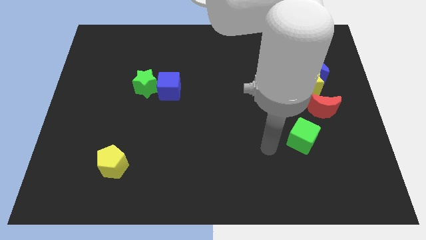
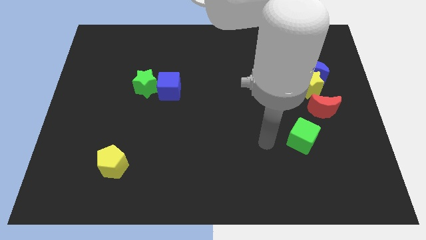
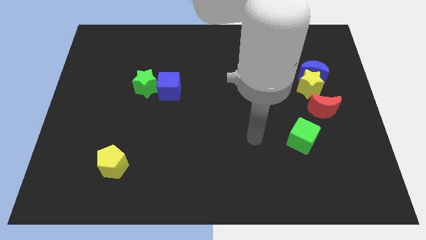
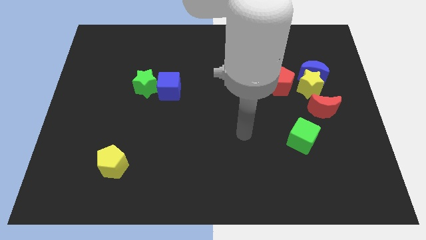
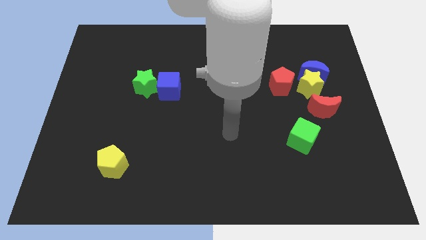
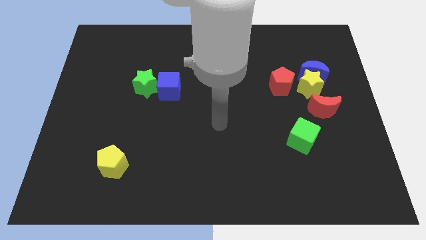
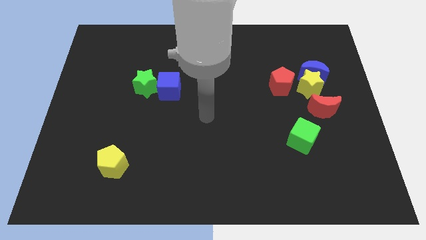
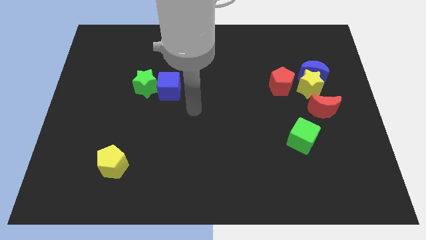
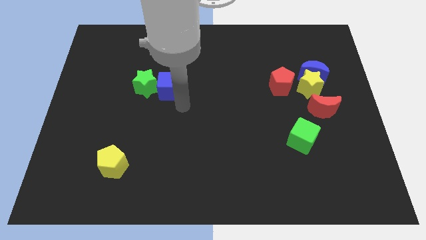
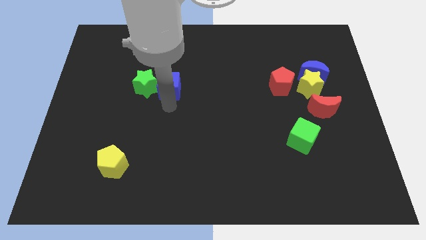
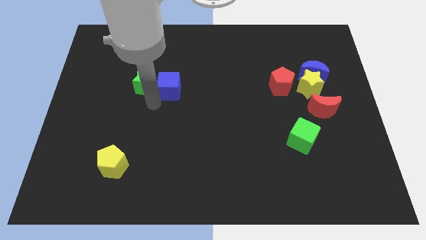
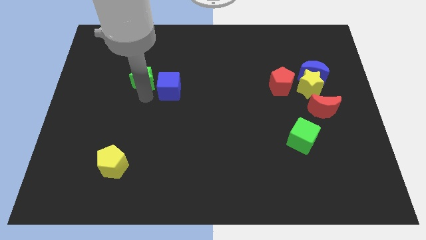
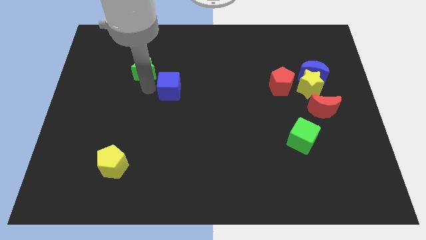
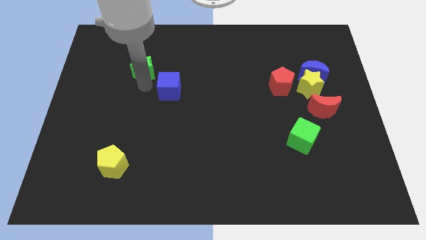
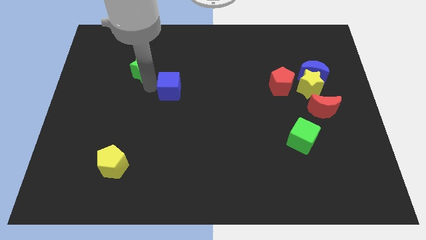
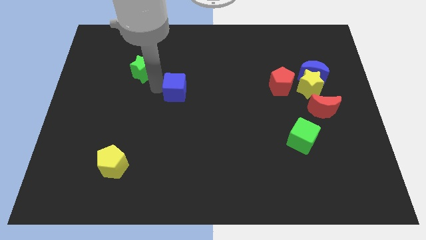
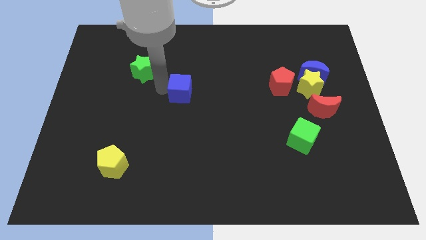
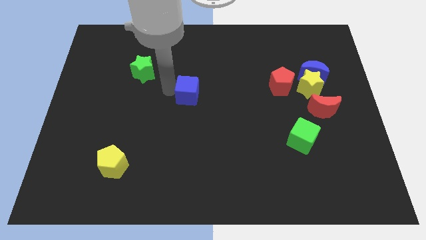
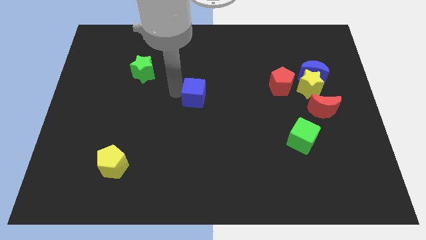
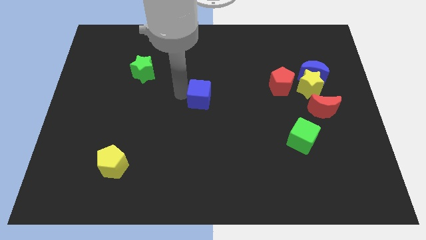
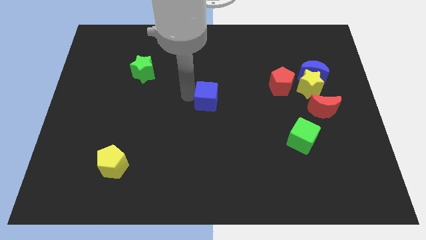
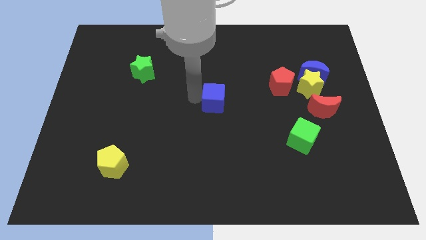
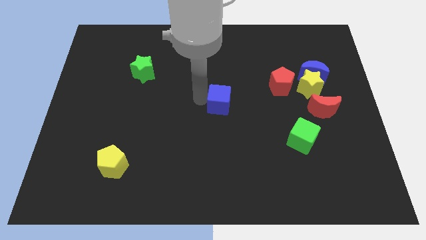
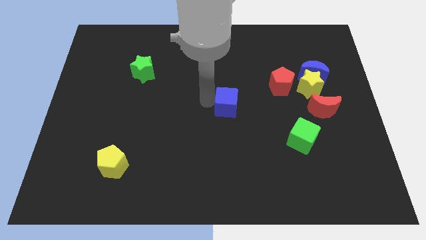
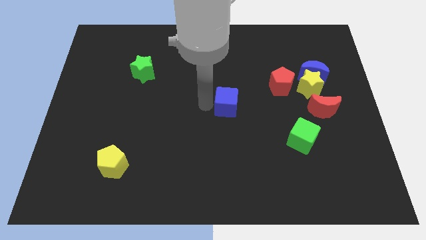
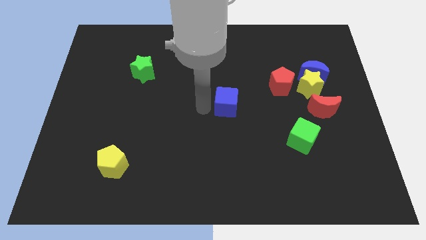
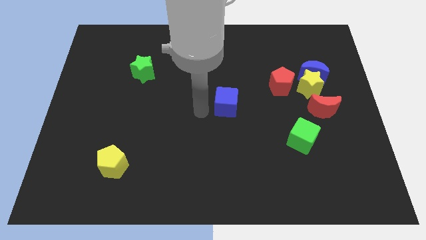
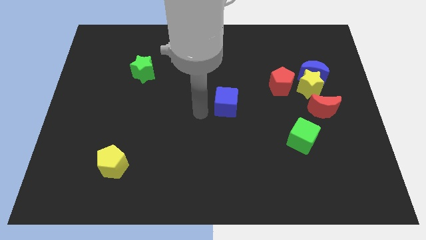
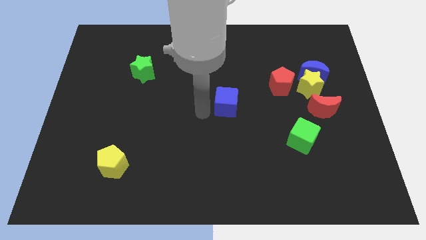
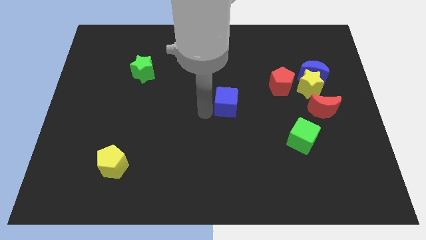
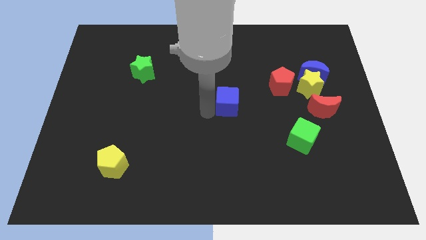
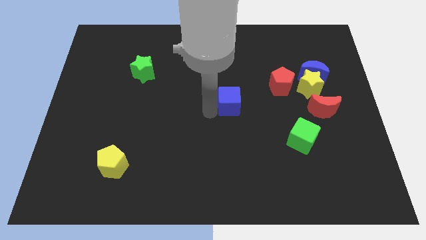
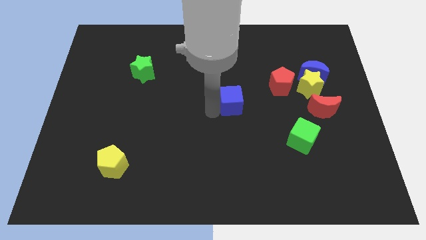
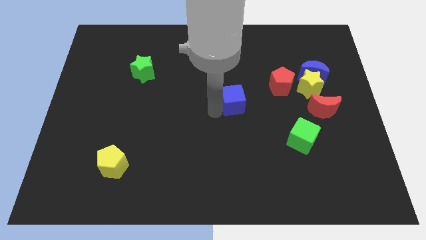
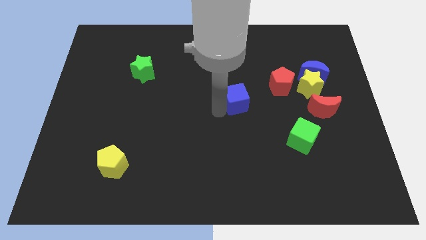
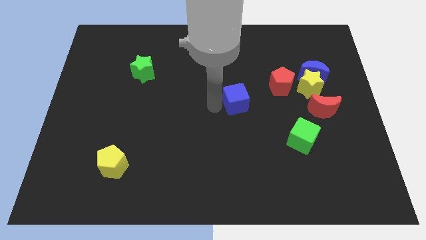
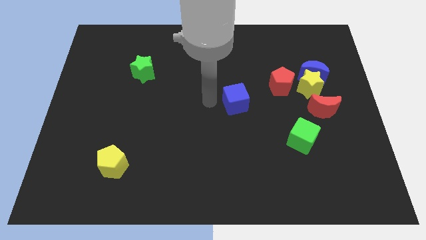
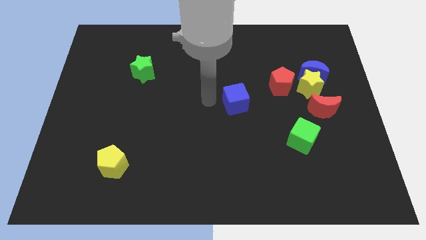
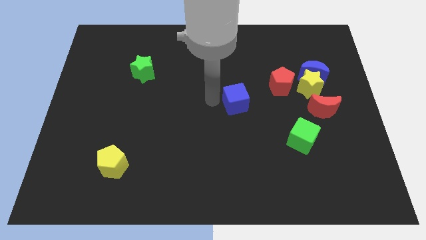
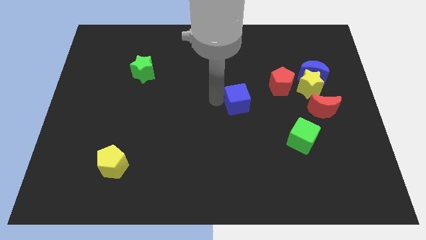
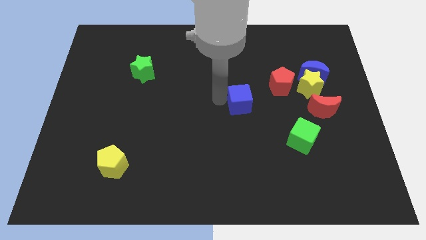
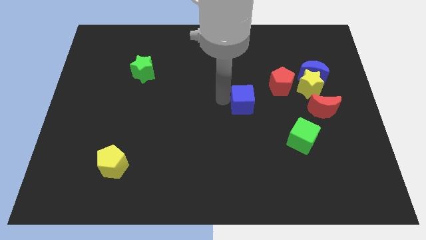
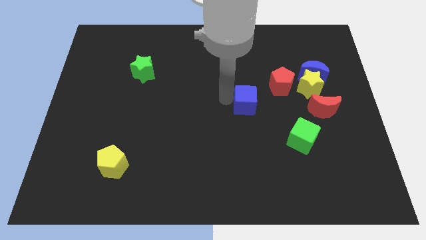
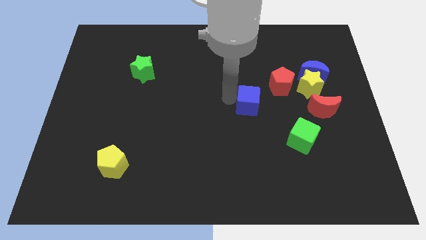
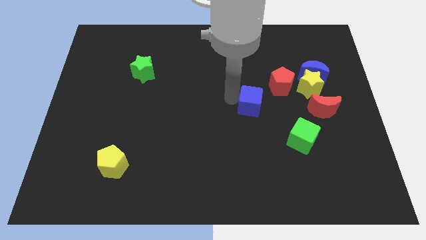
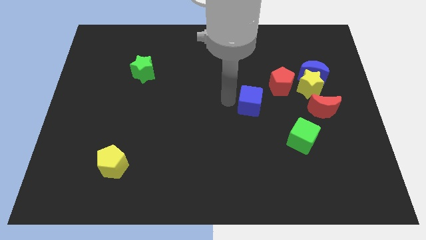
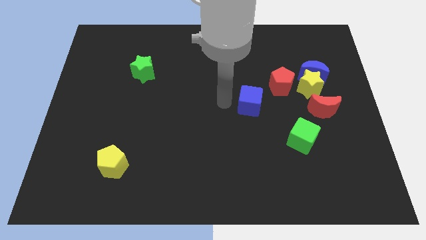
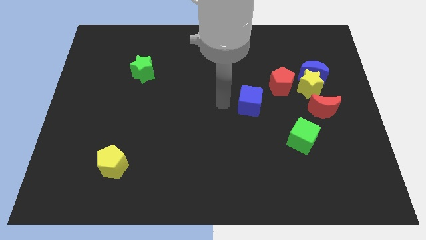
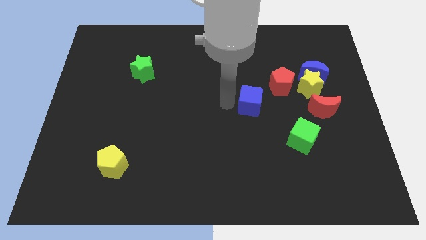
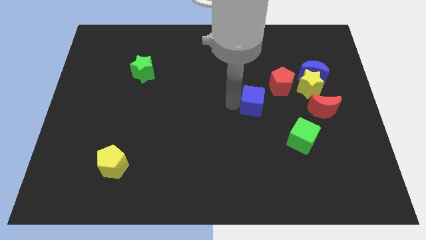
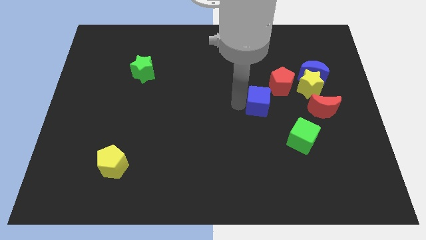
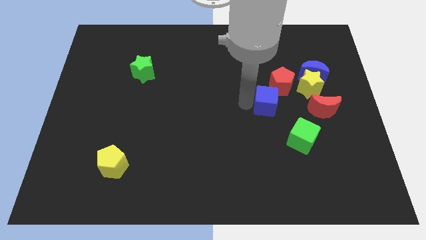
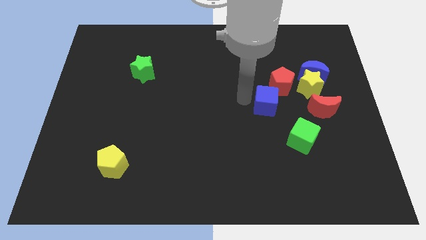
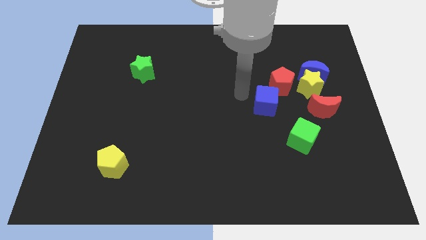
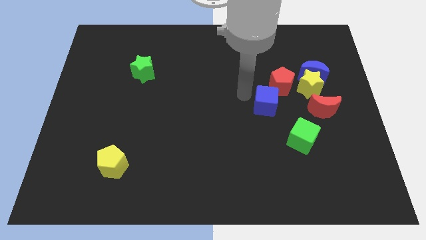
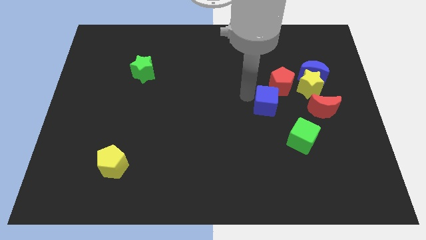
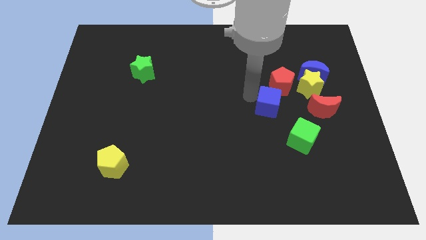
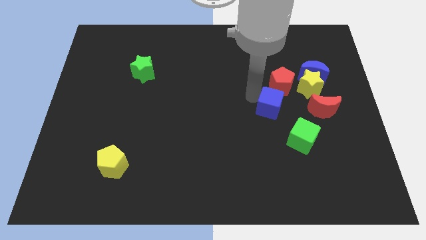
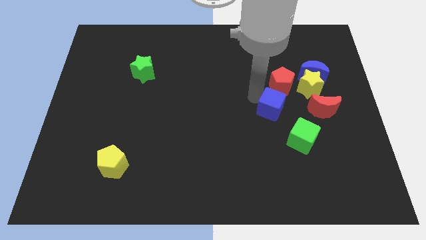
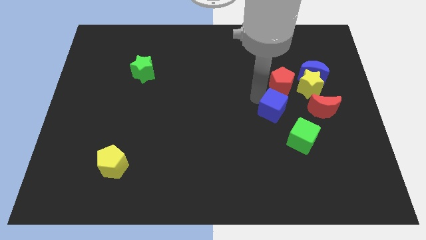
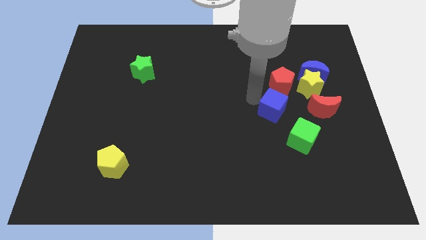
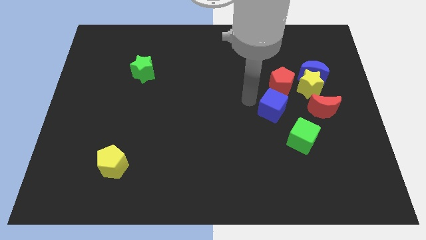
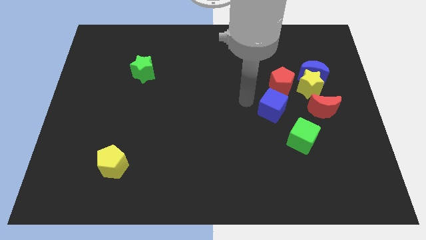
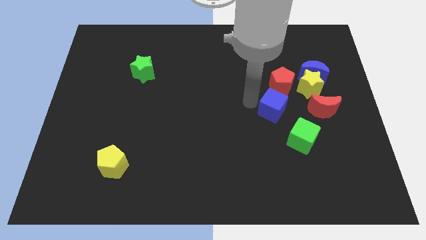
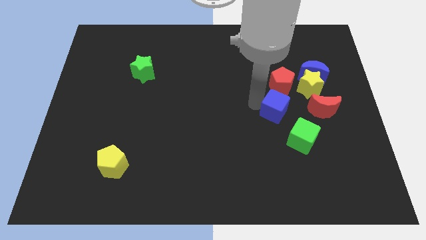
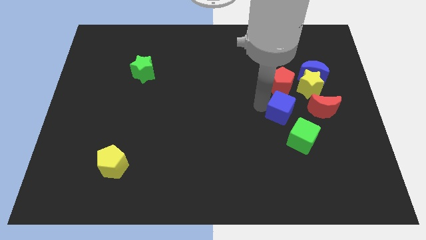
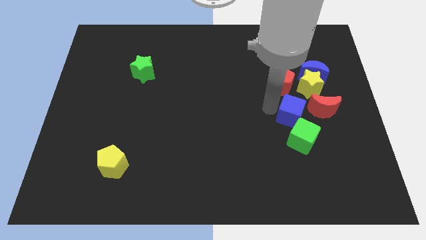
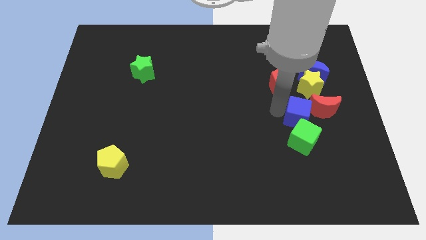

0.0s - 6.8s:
slide the blue cube to the bottom of the yellow star
